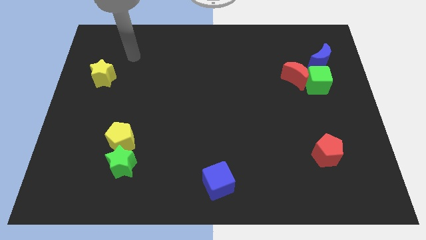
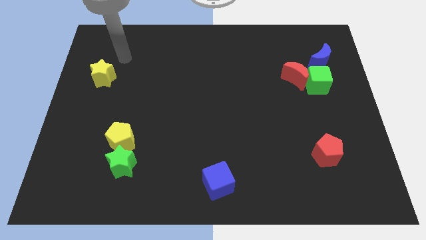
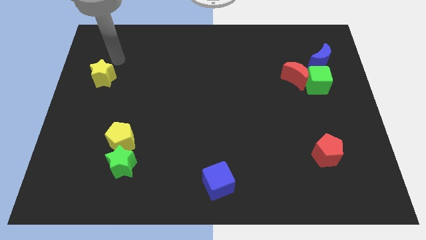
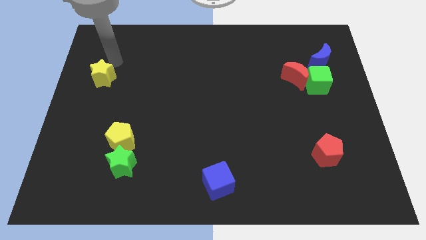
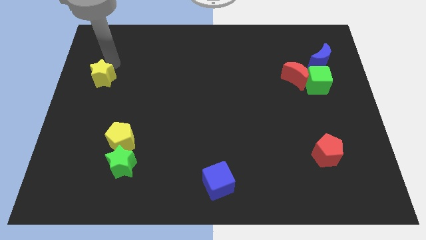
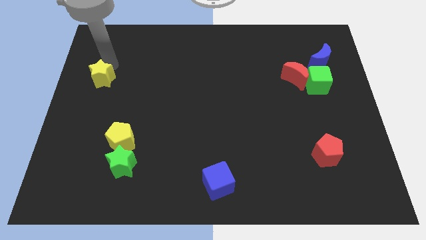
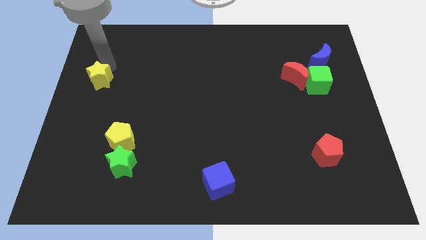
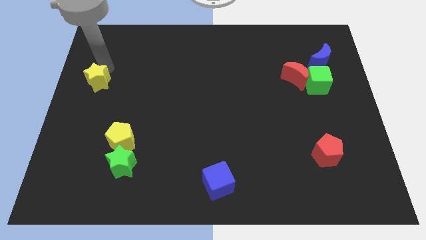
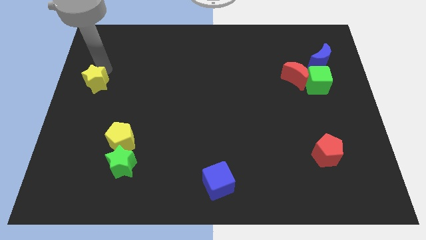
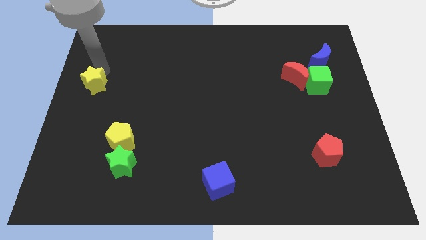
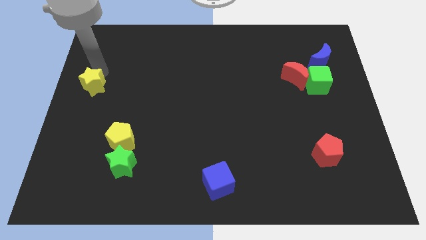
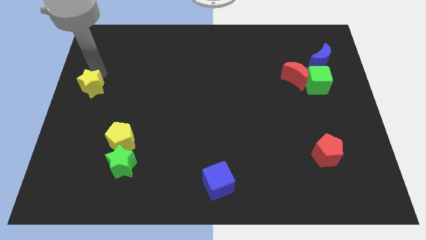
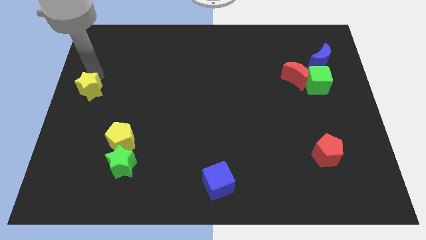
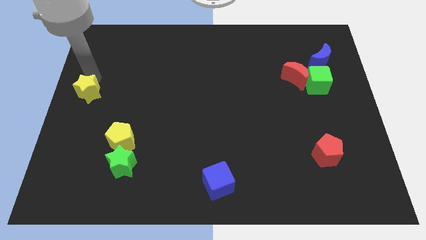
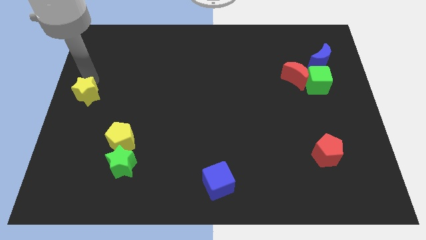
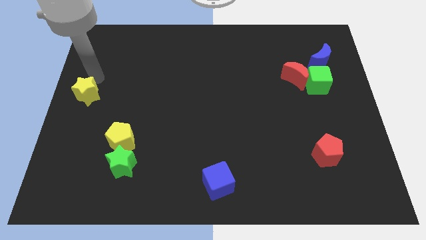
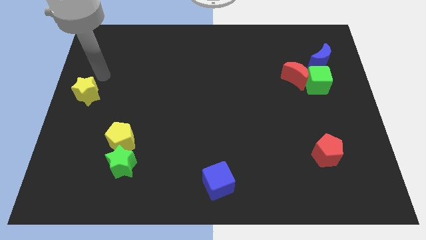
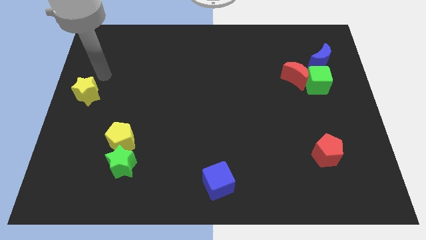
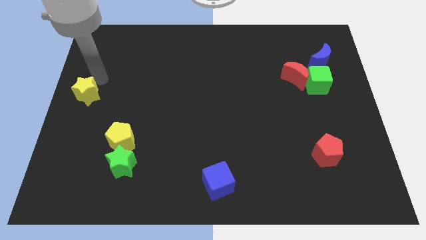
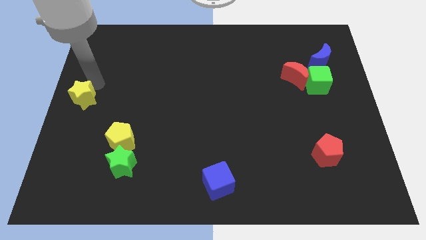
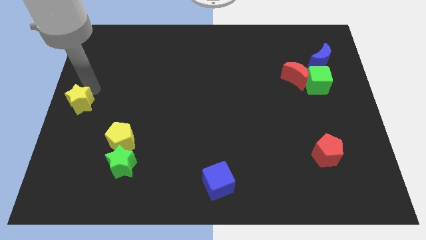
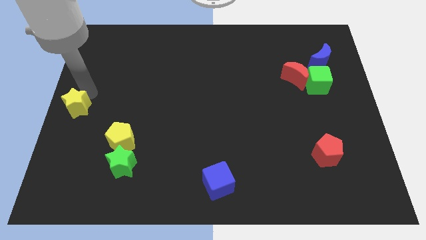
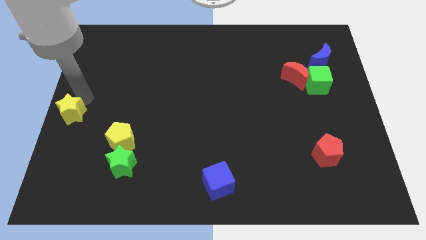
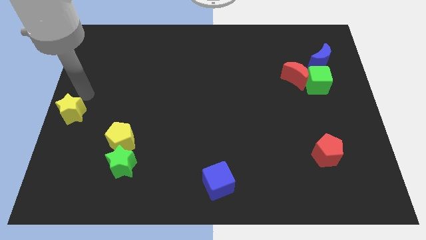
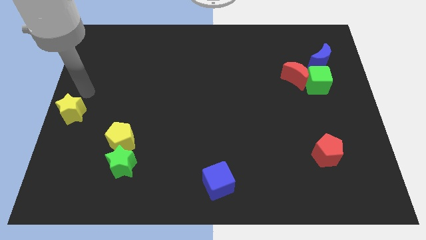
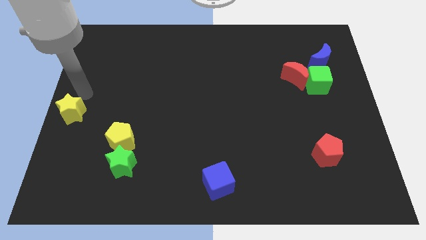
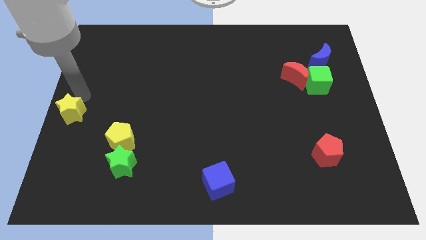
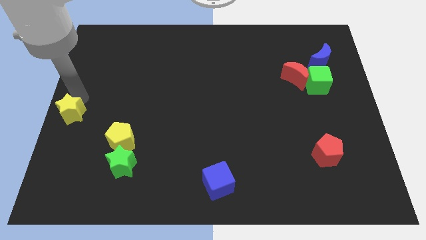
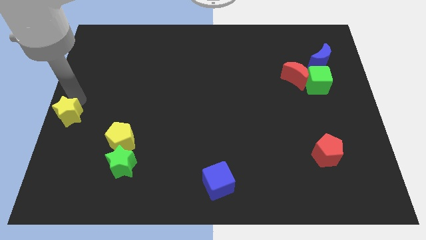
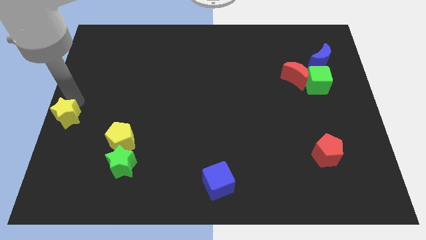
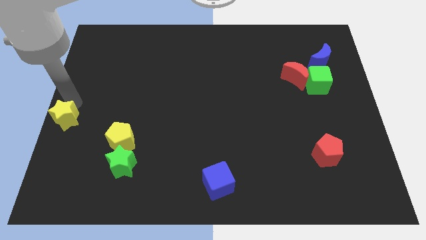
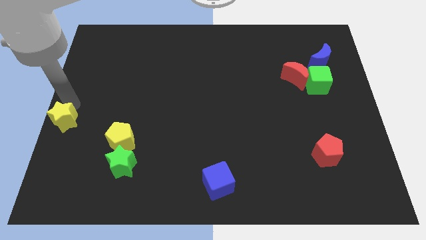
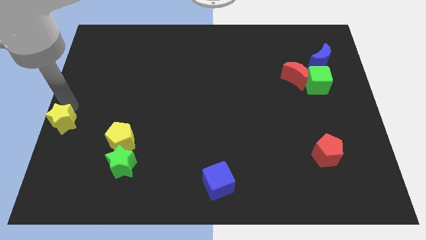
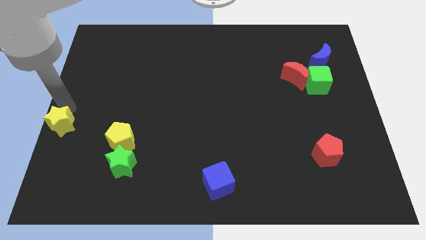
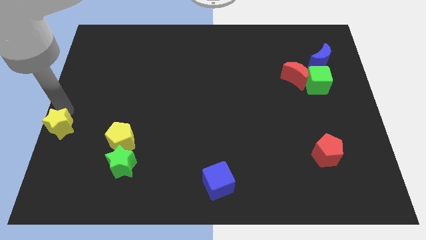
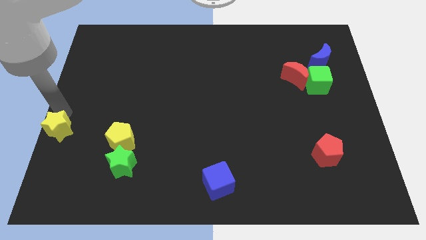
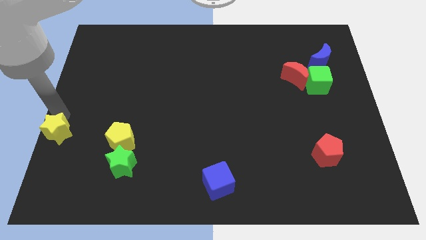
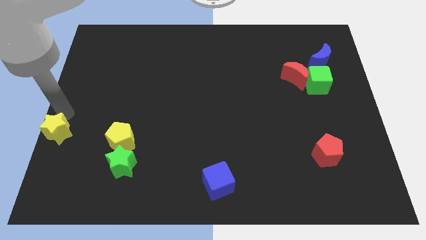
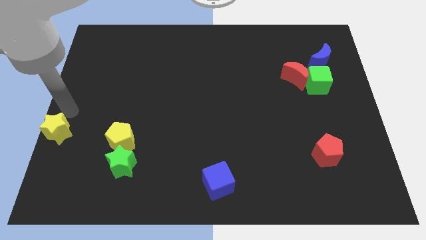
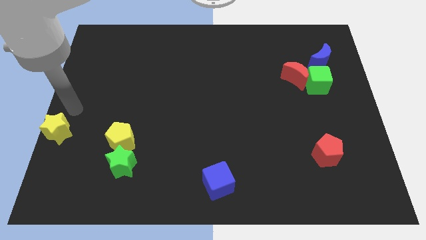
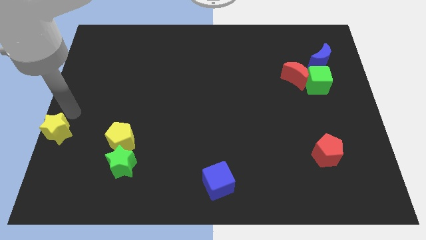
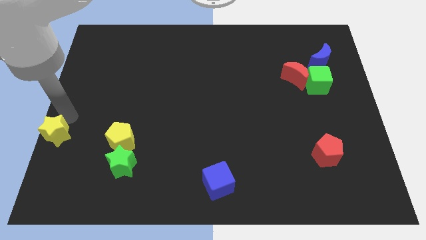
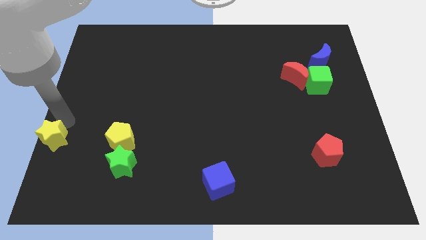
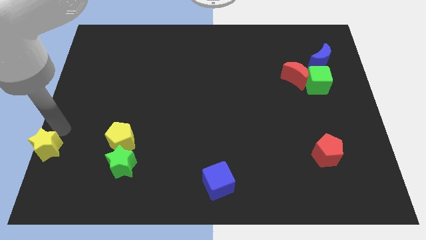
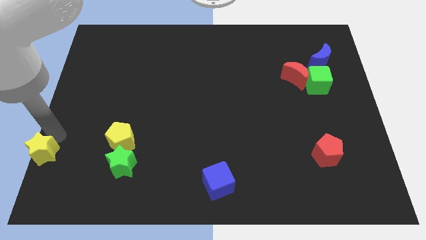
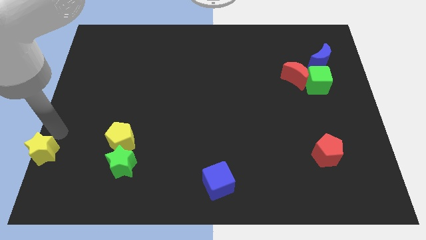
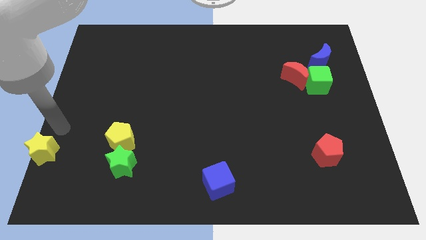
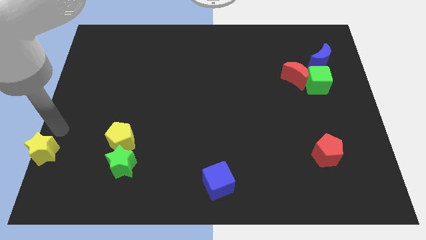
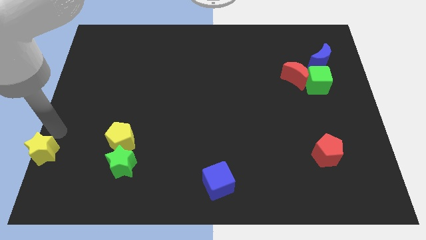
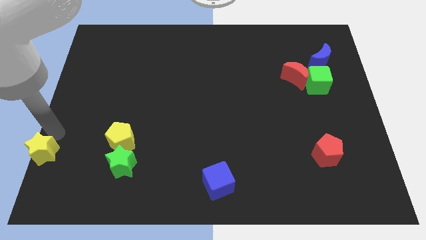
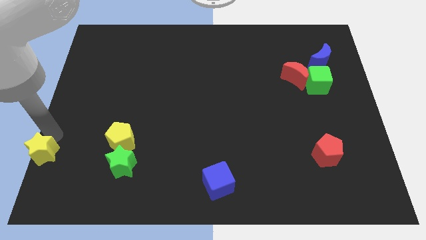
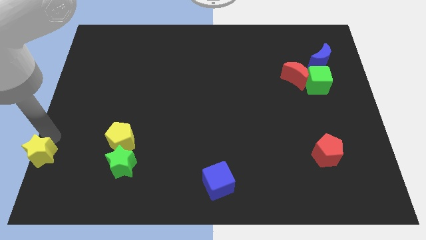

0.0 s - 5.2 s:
slide the yellow star to the lower left corner

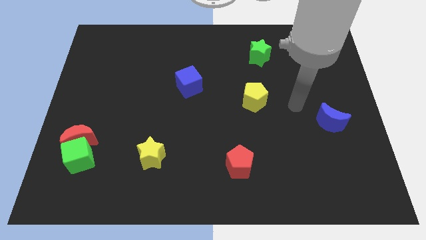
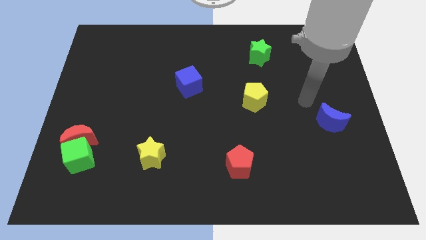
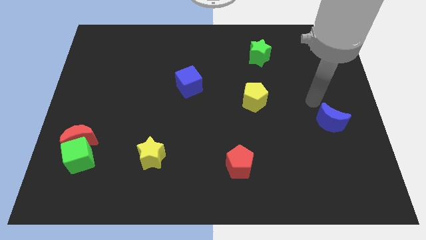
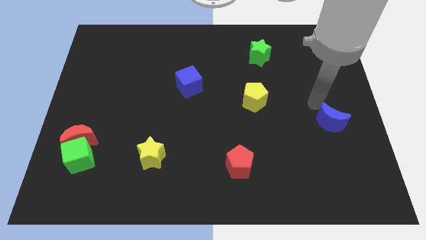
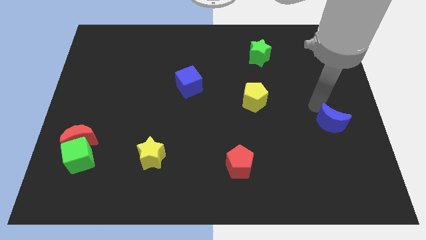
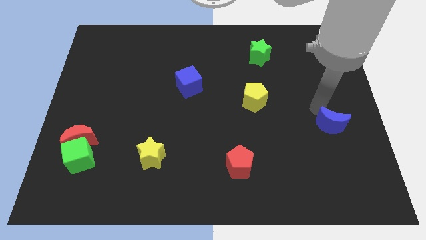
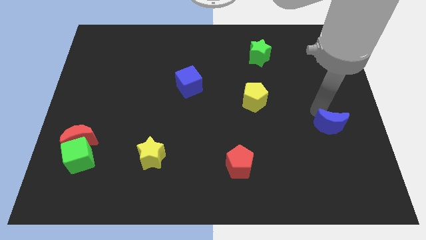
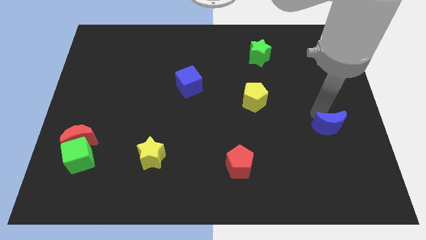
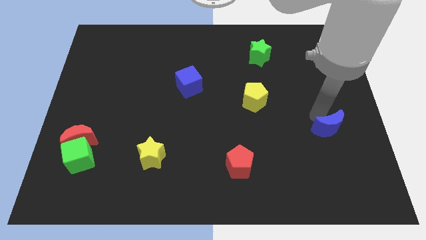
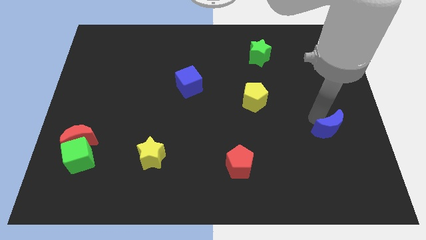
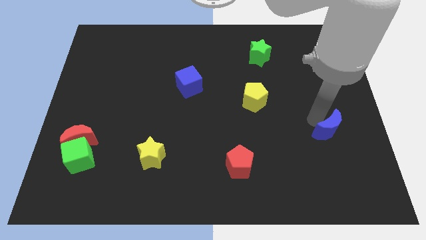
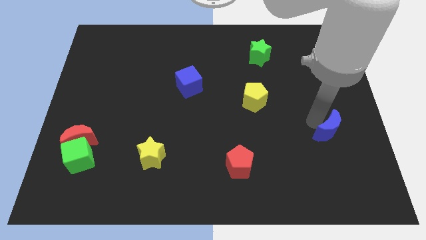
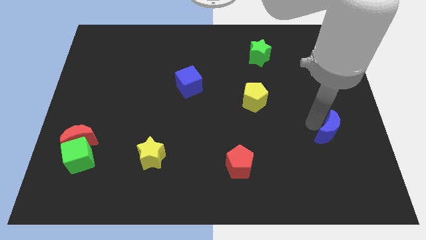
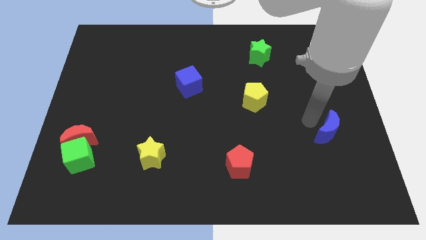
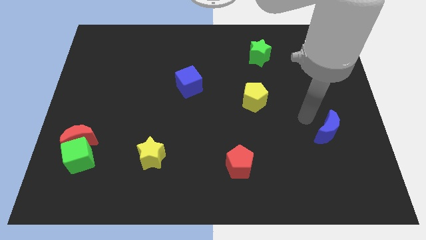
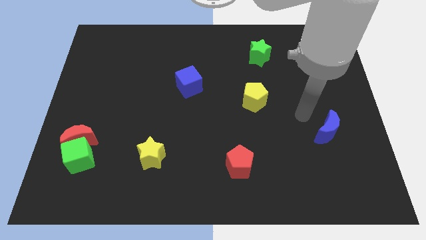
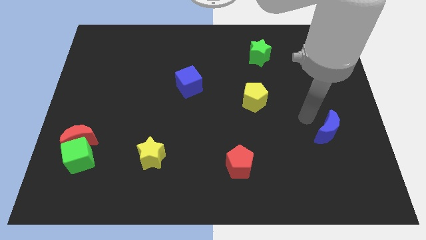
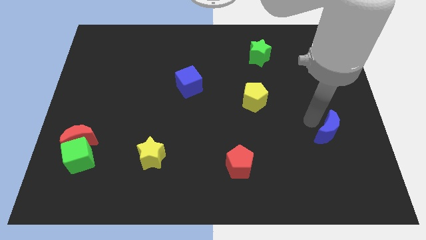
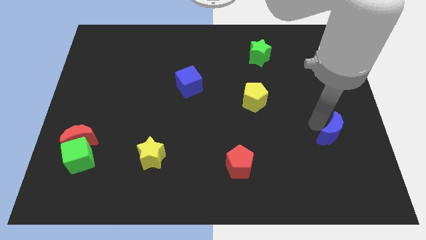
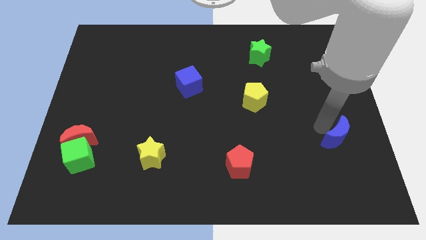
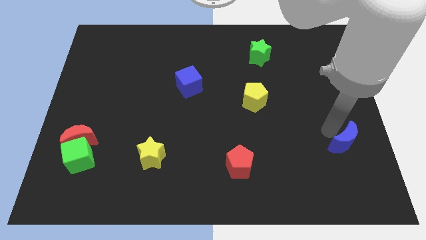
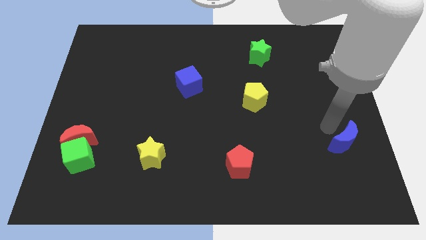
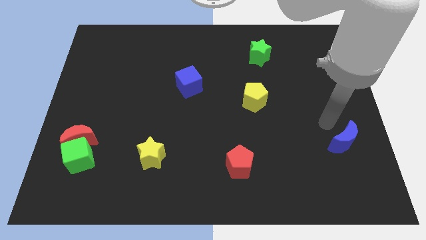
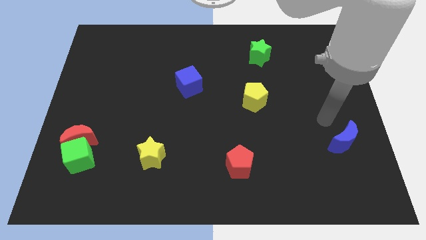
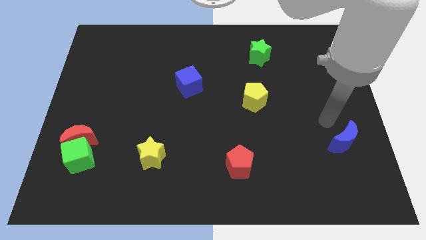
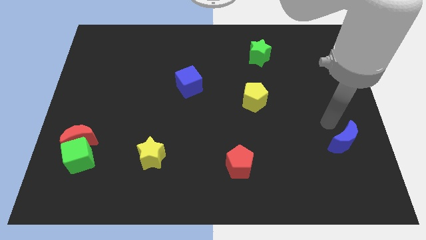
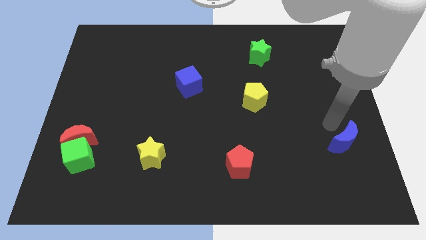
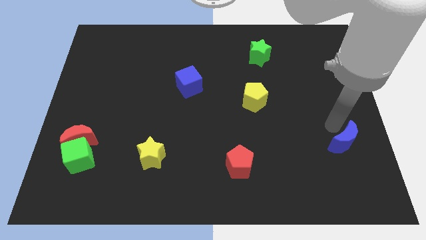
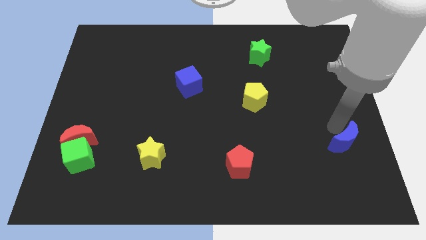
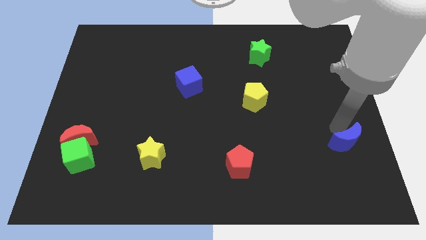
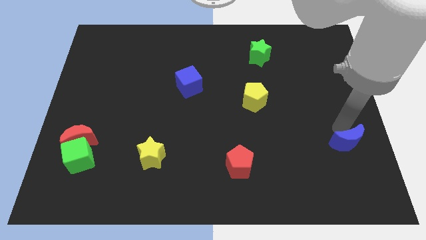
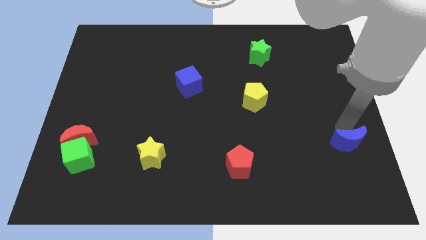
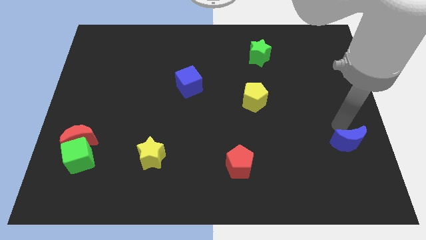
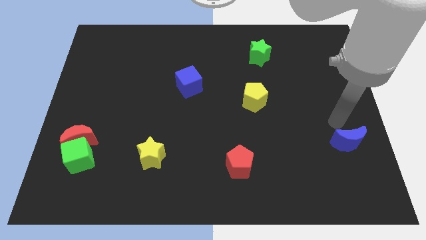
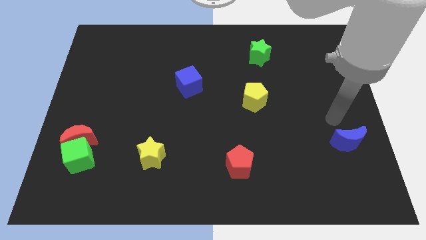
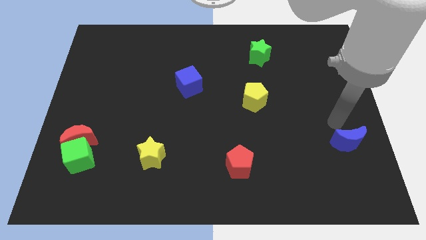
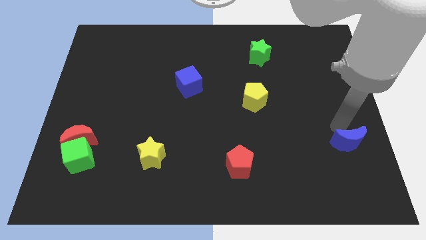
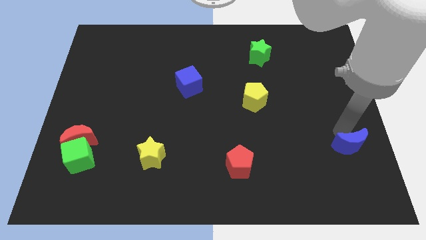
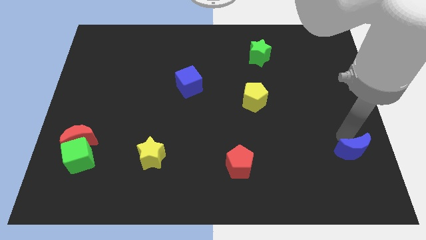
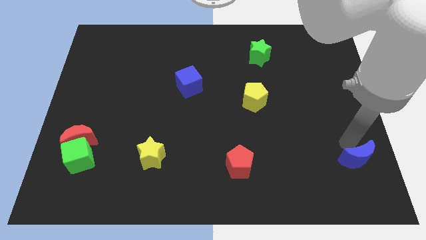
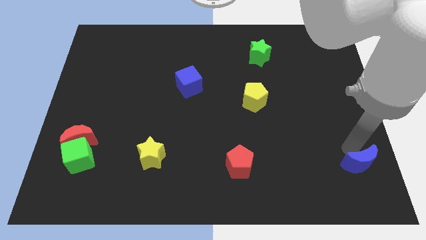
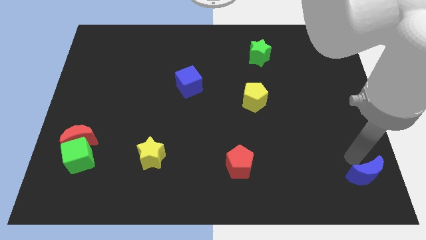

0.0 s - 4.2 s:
move the blue moon to the bottom right
